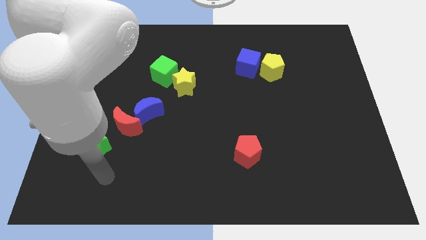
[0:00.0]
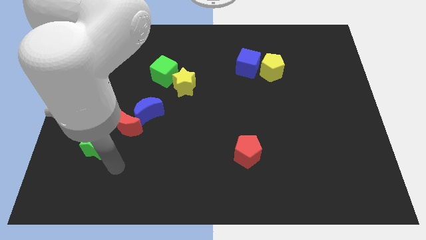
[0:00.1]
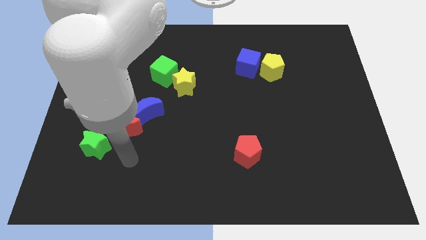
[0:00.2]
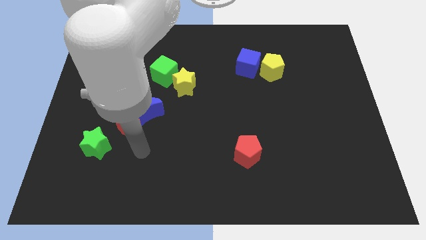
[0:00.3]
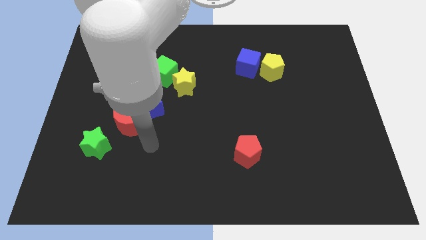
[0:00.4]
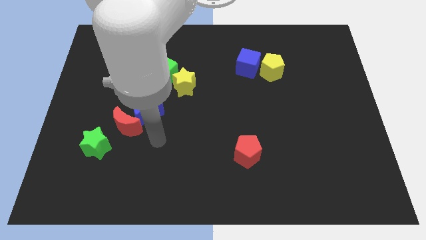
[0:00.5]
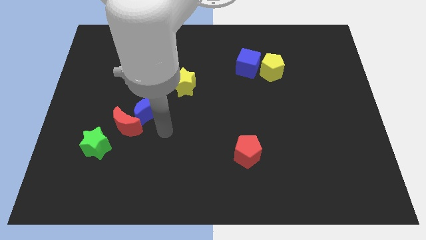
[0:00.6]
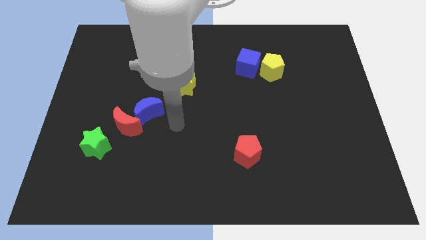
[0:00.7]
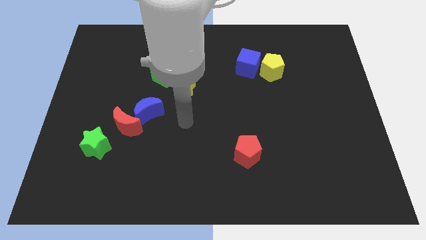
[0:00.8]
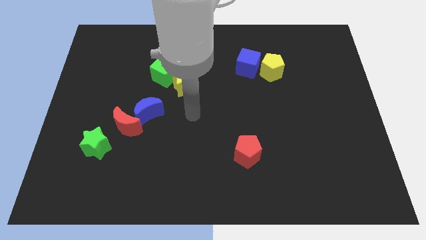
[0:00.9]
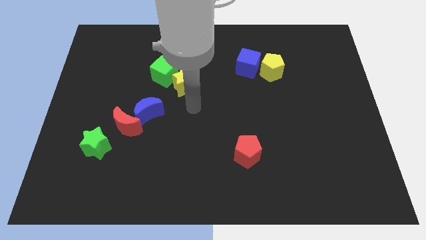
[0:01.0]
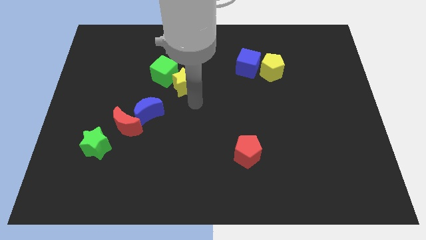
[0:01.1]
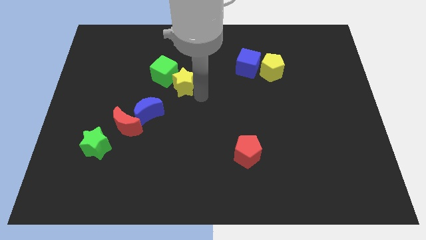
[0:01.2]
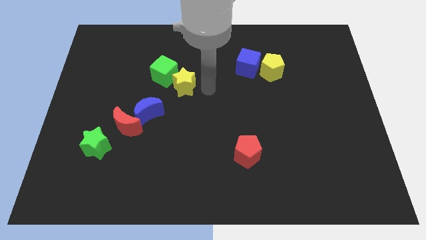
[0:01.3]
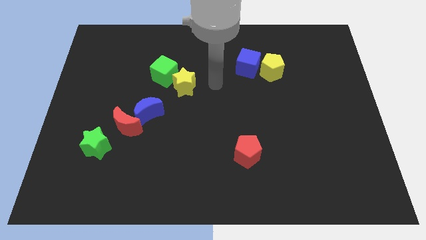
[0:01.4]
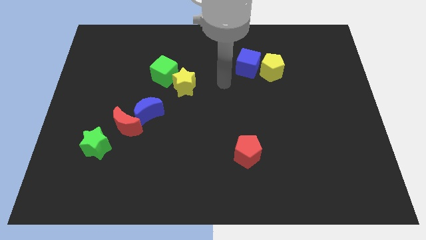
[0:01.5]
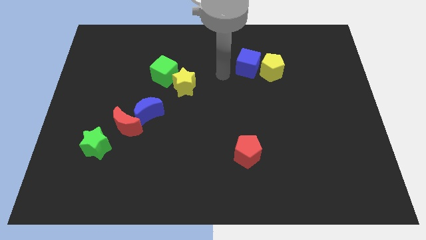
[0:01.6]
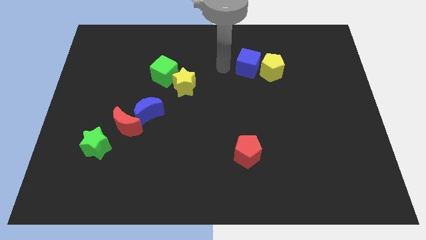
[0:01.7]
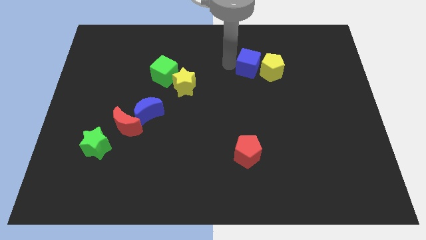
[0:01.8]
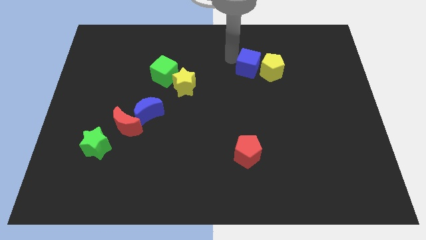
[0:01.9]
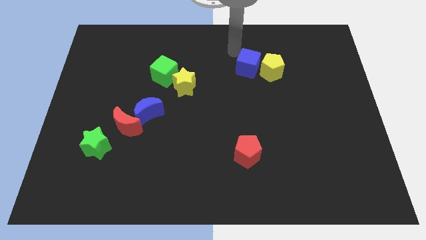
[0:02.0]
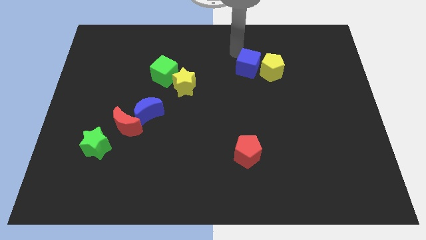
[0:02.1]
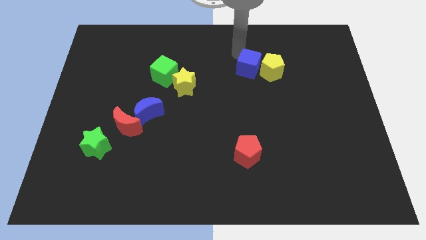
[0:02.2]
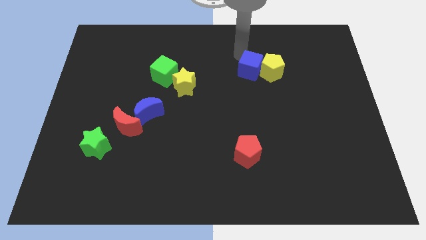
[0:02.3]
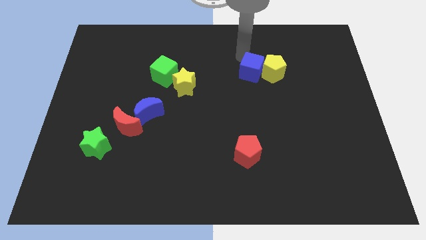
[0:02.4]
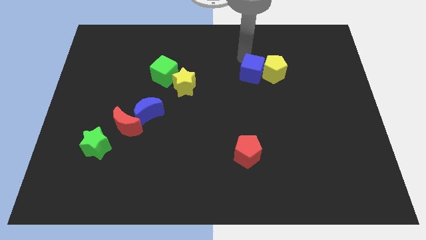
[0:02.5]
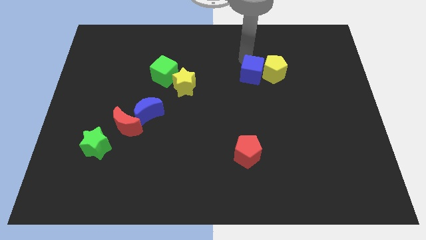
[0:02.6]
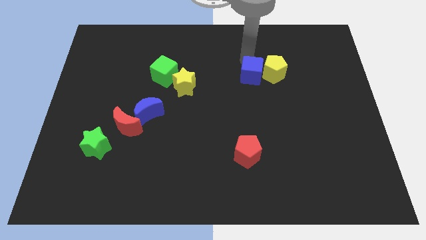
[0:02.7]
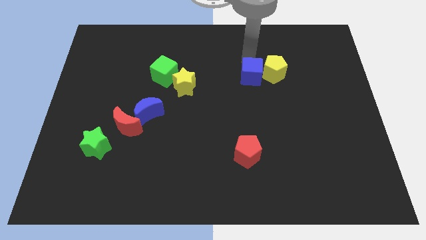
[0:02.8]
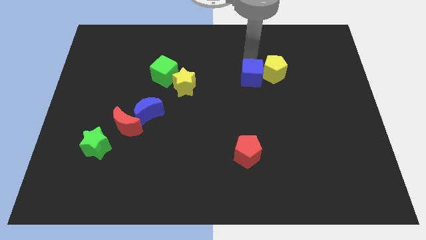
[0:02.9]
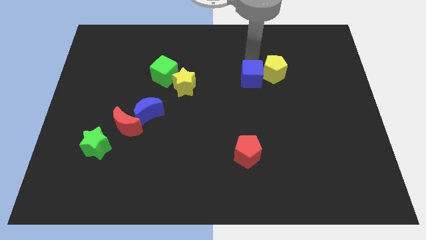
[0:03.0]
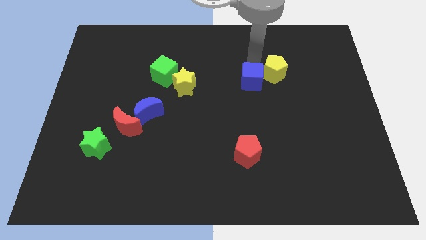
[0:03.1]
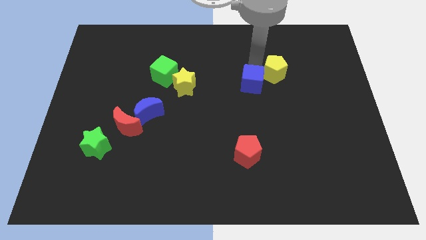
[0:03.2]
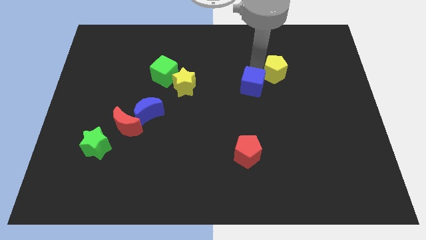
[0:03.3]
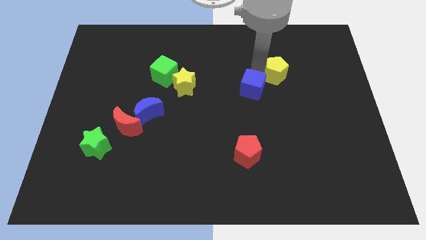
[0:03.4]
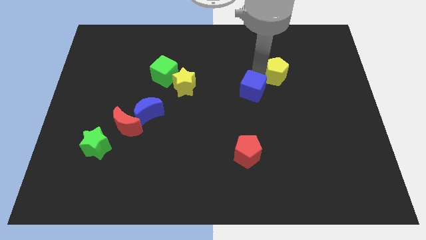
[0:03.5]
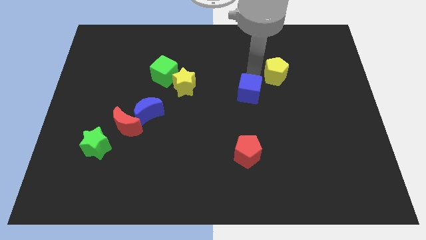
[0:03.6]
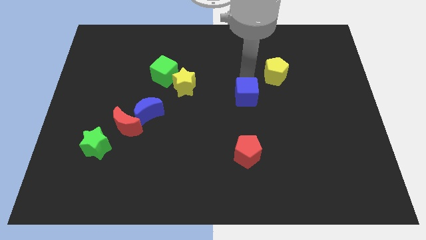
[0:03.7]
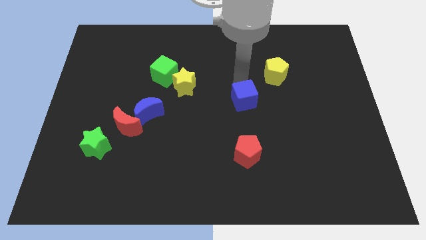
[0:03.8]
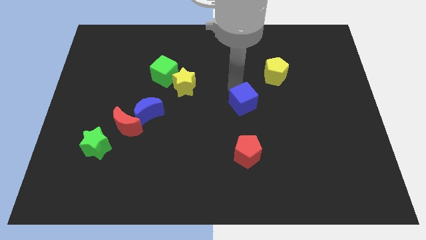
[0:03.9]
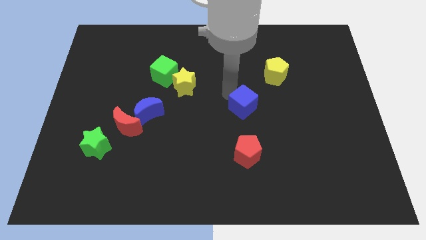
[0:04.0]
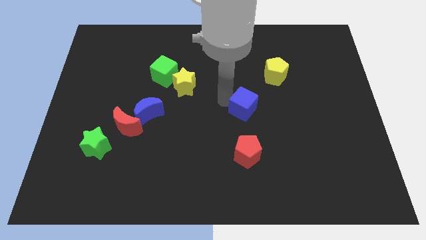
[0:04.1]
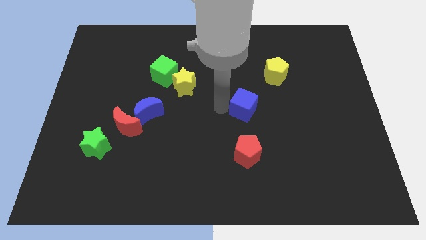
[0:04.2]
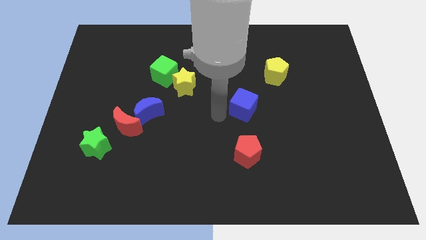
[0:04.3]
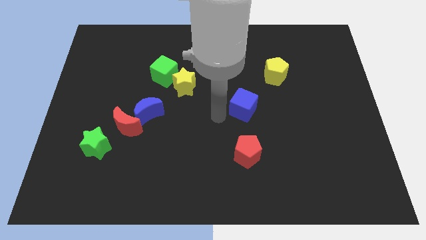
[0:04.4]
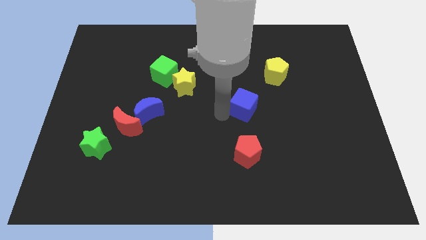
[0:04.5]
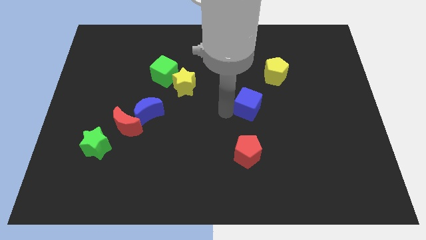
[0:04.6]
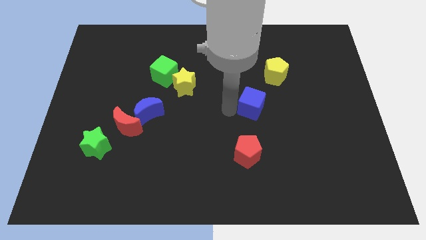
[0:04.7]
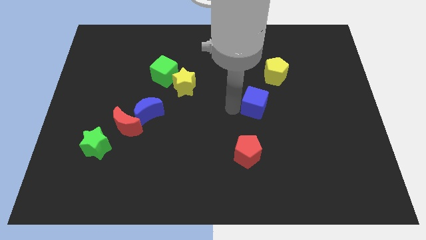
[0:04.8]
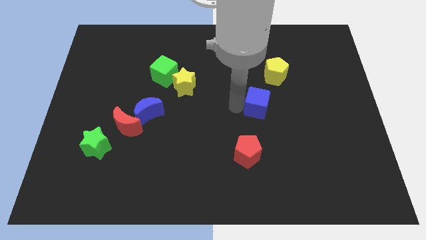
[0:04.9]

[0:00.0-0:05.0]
move the blue cube down and then to the right a little

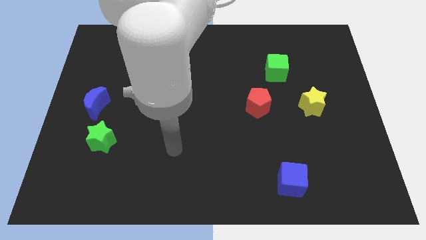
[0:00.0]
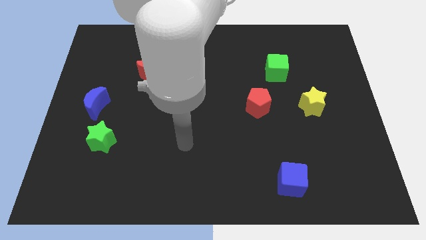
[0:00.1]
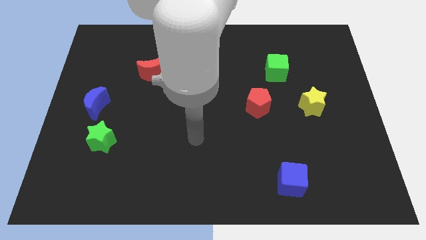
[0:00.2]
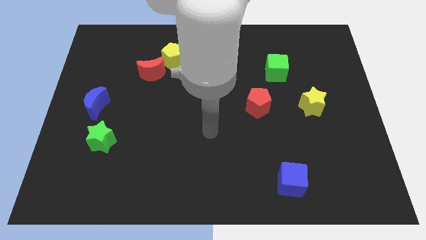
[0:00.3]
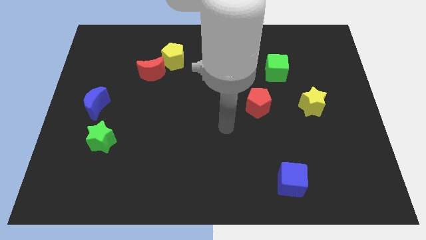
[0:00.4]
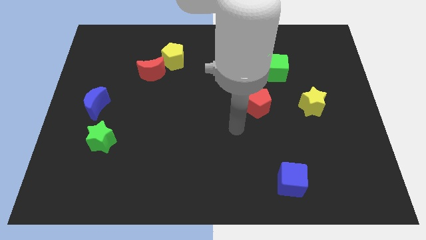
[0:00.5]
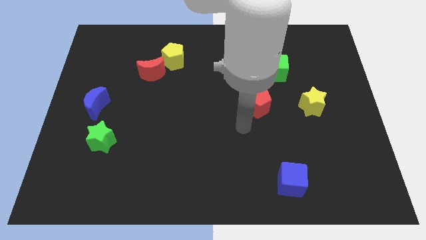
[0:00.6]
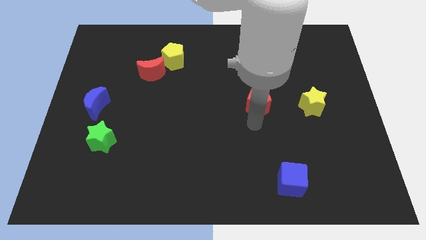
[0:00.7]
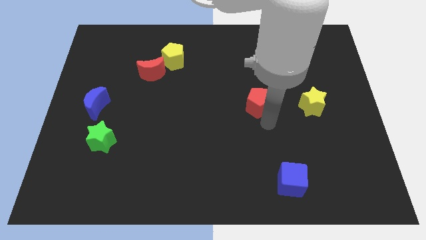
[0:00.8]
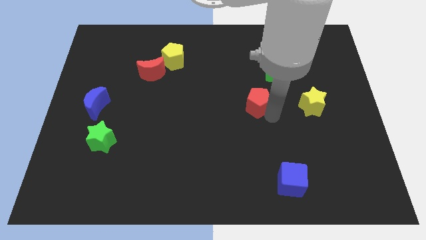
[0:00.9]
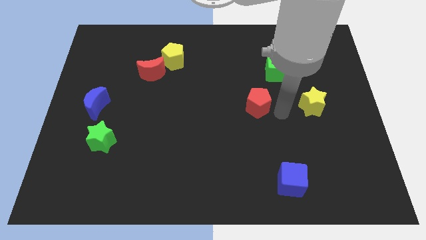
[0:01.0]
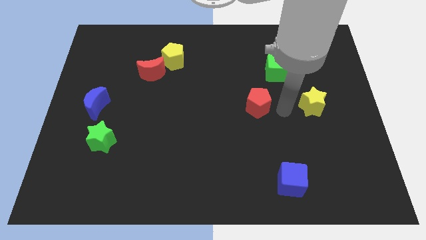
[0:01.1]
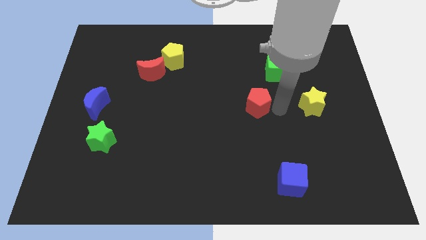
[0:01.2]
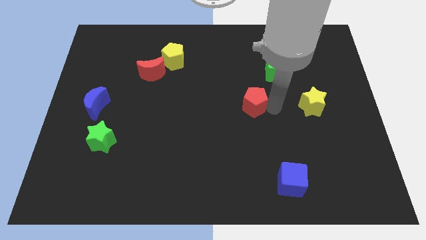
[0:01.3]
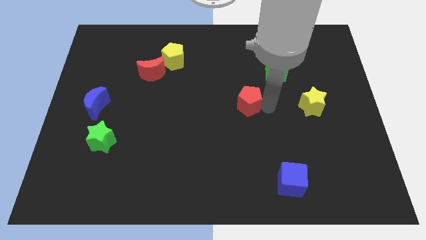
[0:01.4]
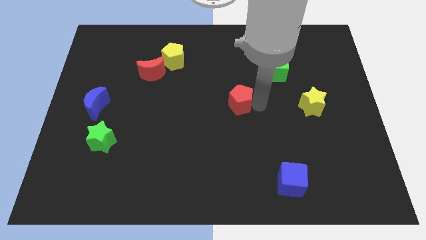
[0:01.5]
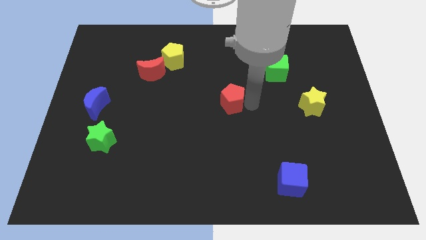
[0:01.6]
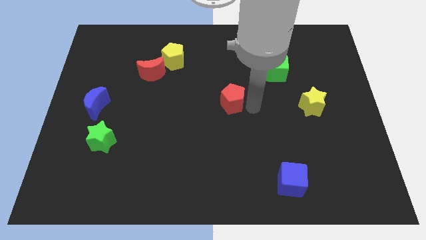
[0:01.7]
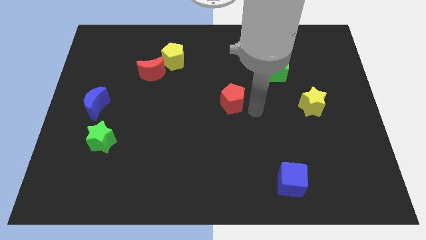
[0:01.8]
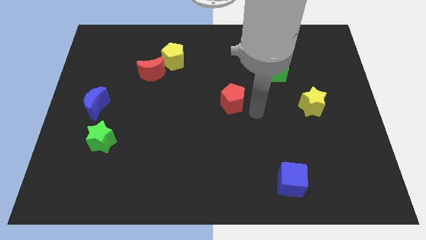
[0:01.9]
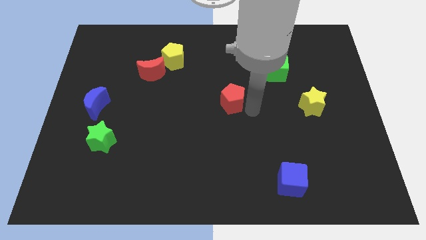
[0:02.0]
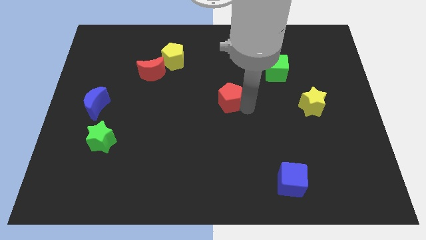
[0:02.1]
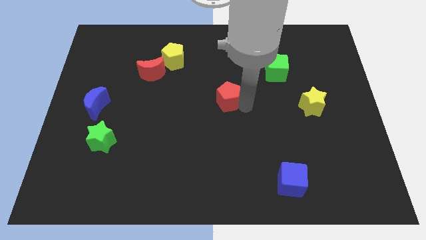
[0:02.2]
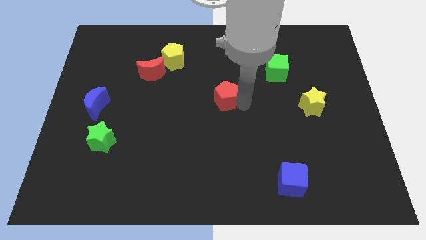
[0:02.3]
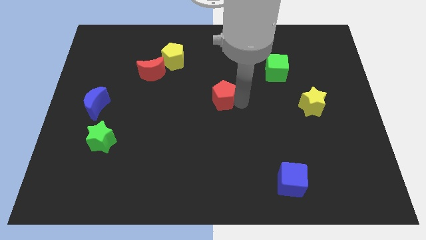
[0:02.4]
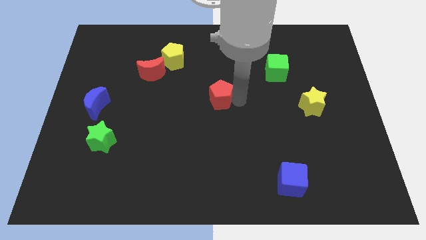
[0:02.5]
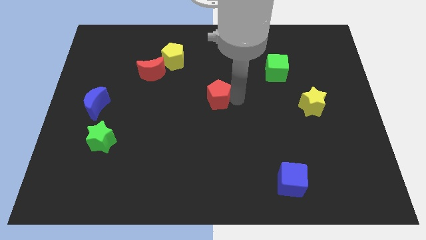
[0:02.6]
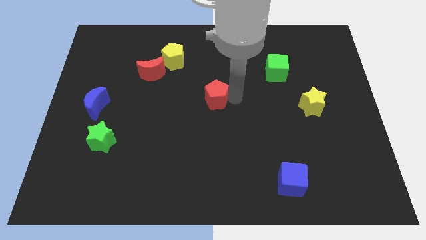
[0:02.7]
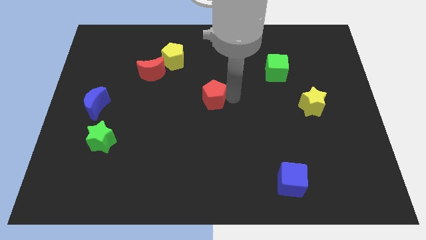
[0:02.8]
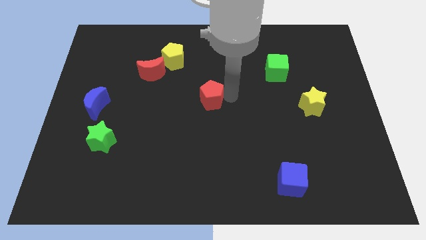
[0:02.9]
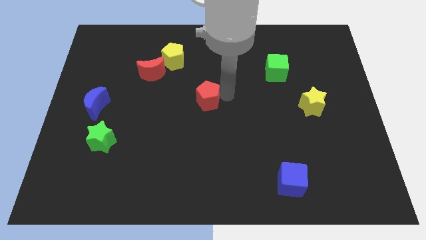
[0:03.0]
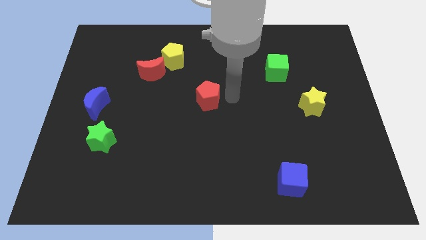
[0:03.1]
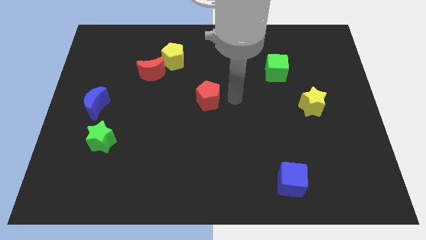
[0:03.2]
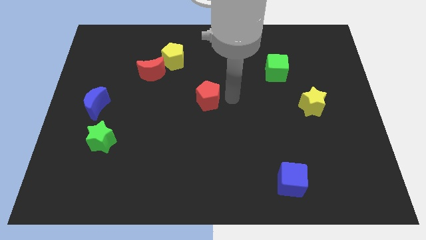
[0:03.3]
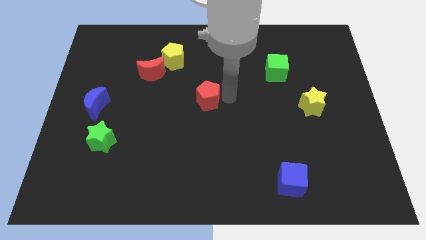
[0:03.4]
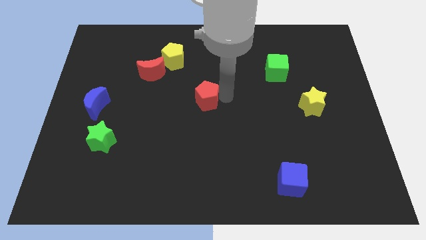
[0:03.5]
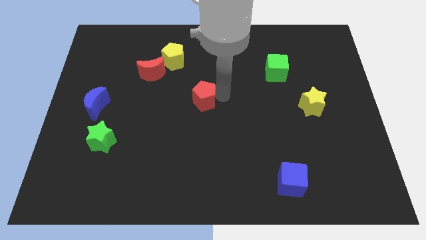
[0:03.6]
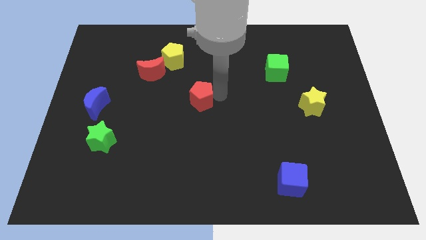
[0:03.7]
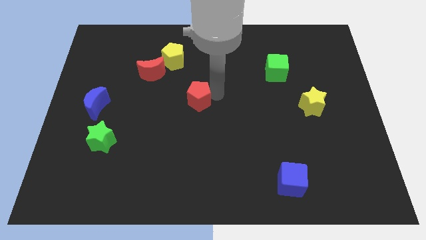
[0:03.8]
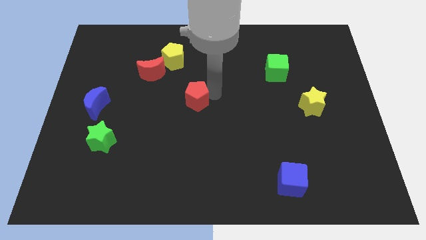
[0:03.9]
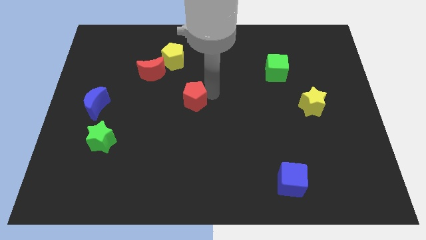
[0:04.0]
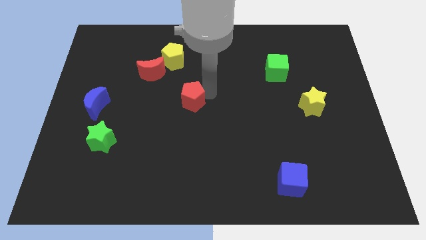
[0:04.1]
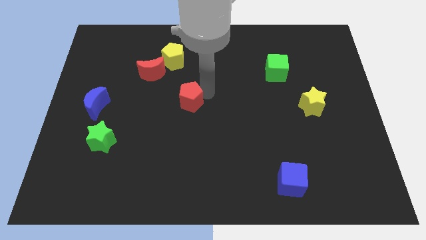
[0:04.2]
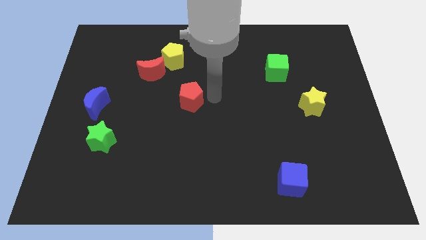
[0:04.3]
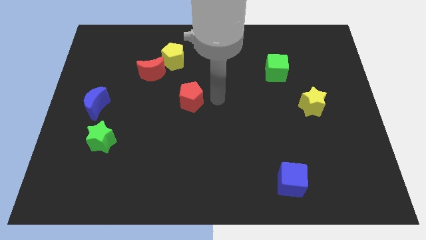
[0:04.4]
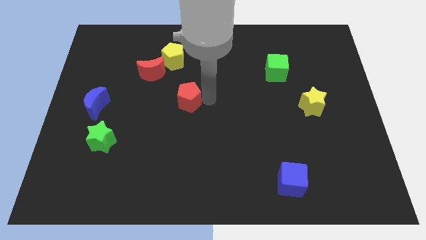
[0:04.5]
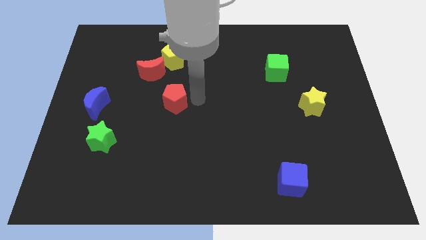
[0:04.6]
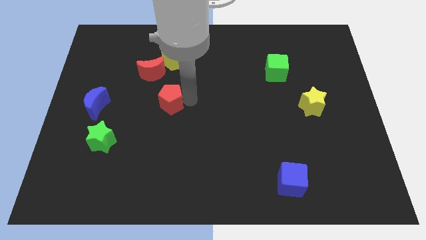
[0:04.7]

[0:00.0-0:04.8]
move the red pentagon to the left
